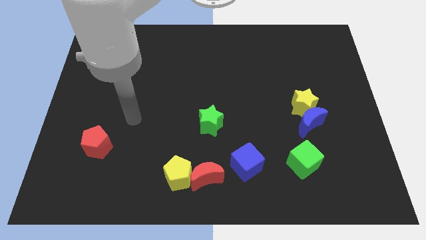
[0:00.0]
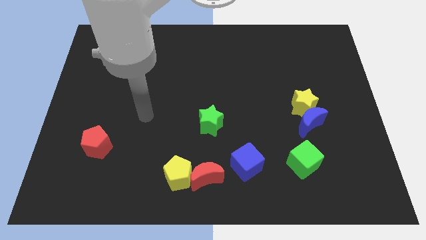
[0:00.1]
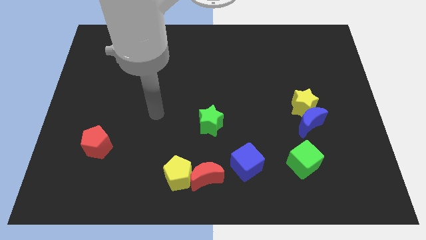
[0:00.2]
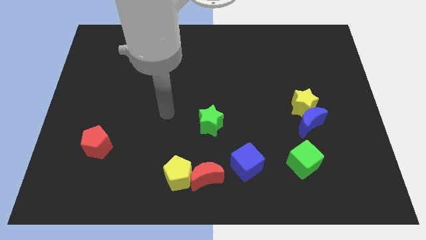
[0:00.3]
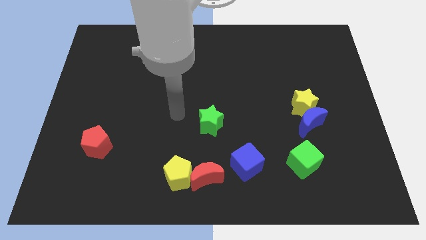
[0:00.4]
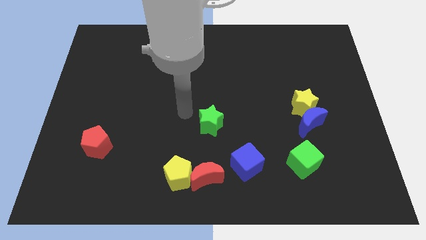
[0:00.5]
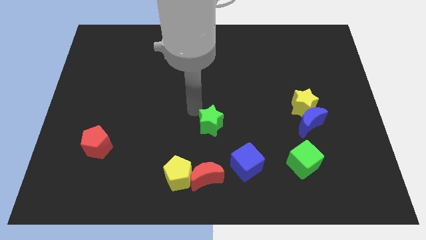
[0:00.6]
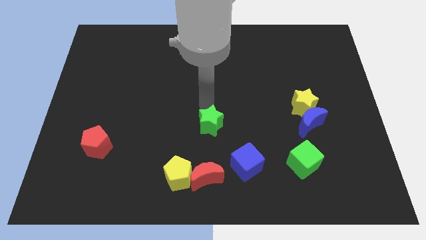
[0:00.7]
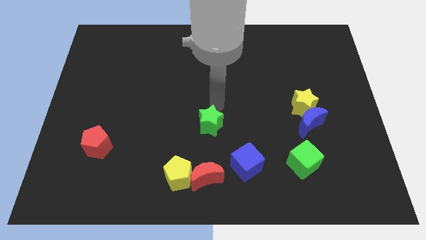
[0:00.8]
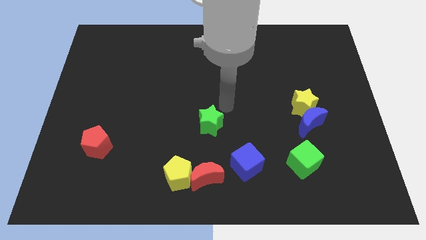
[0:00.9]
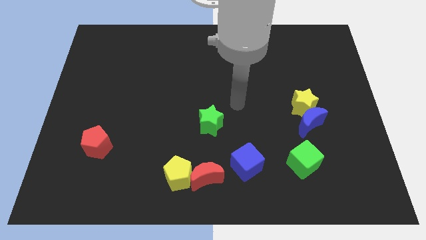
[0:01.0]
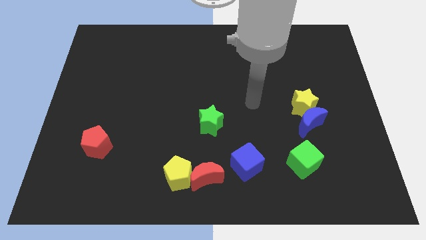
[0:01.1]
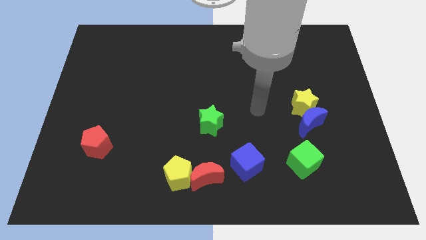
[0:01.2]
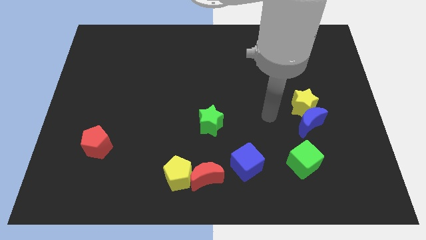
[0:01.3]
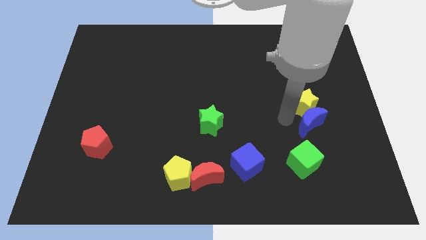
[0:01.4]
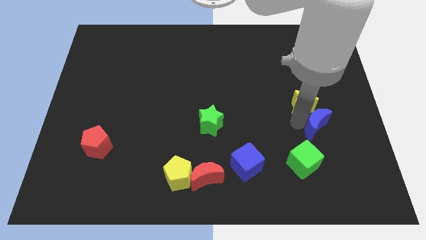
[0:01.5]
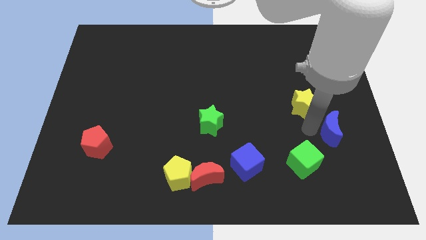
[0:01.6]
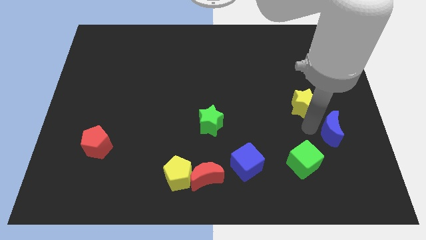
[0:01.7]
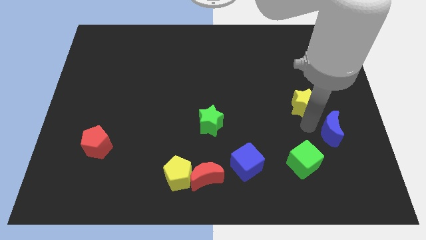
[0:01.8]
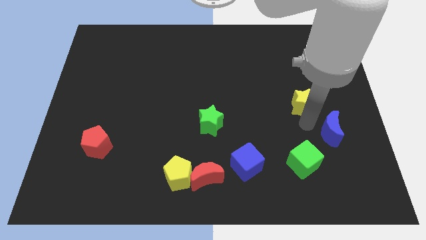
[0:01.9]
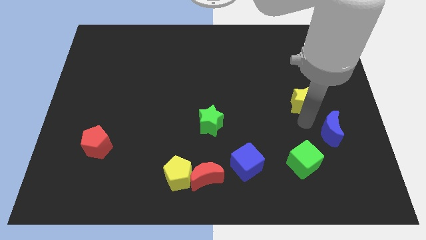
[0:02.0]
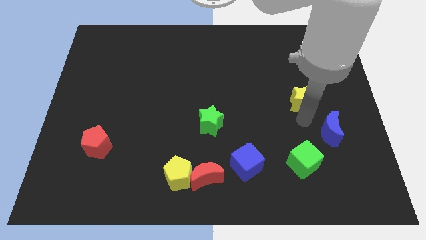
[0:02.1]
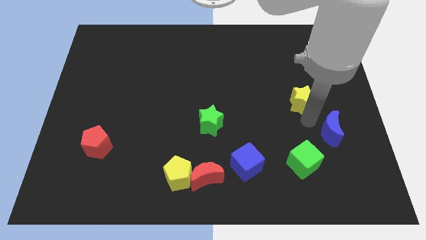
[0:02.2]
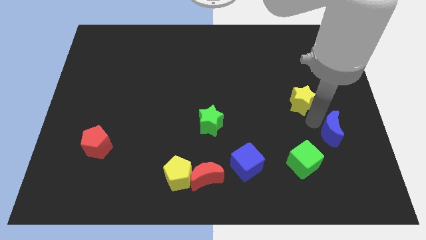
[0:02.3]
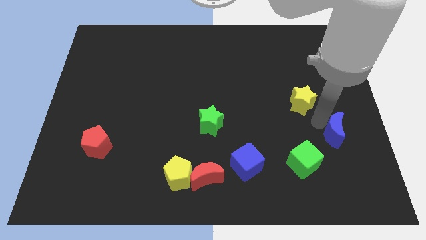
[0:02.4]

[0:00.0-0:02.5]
pull the yellow star apart from the blue moon

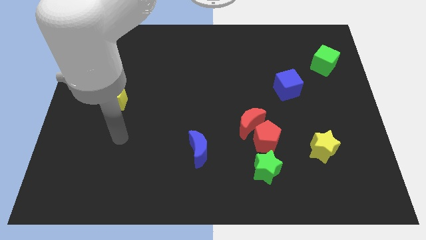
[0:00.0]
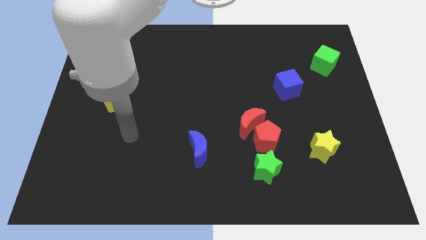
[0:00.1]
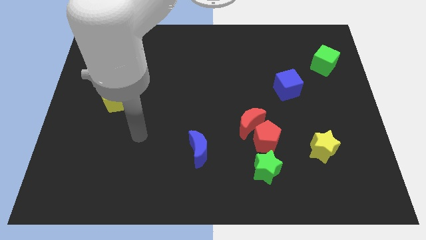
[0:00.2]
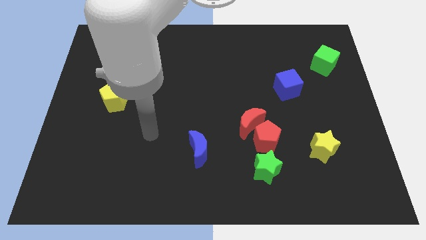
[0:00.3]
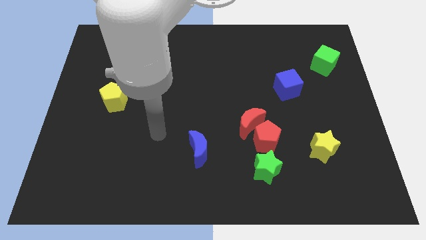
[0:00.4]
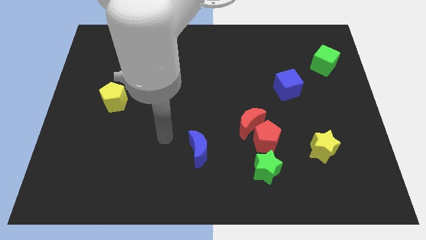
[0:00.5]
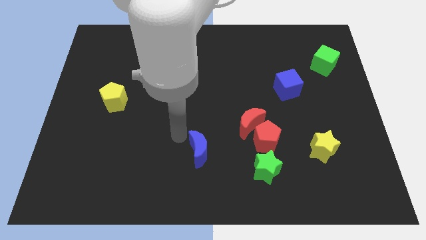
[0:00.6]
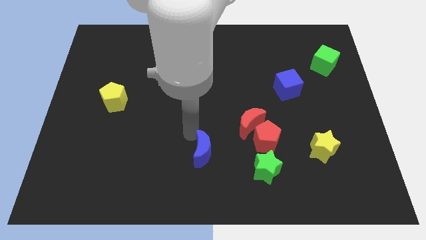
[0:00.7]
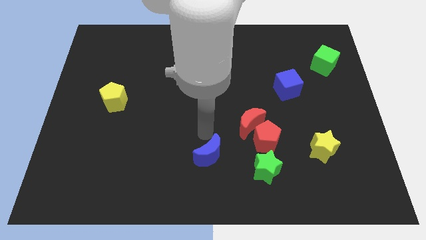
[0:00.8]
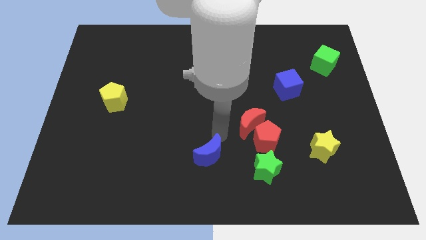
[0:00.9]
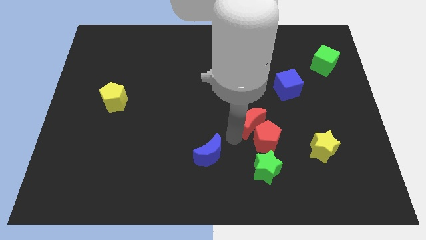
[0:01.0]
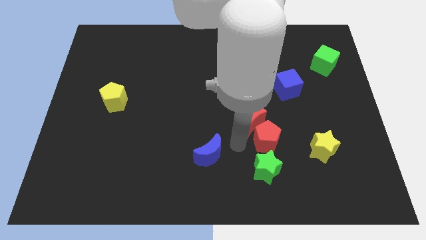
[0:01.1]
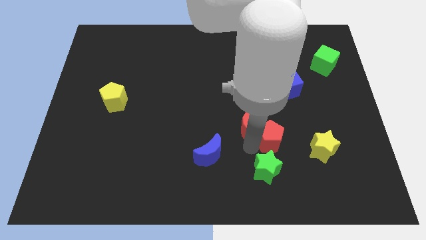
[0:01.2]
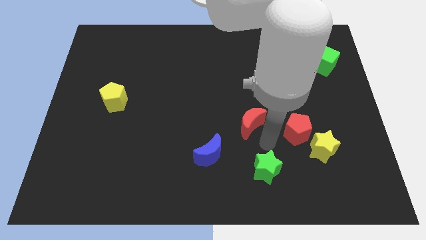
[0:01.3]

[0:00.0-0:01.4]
move the red moon away from the red pentagon

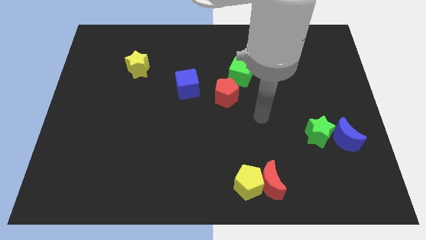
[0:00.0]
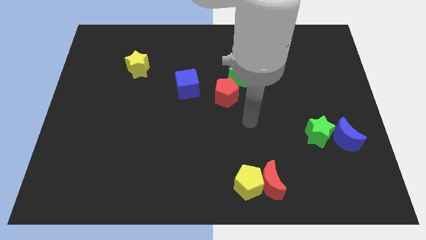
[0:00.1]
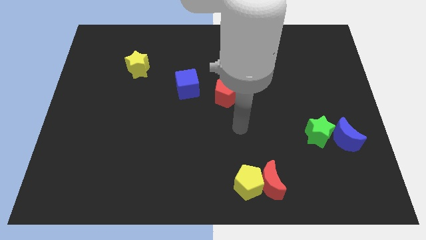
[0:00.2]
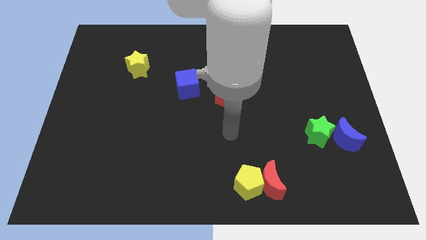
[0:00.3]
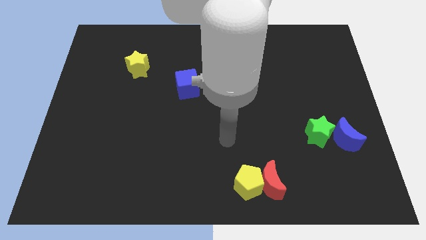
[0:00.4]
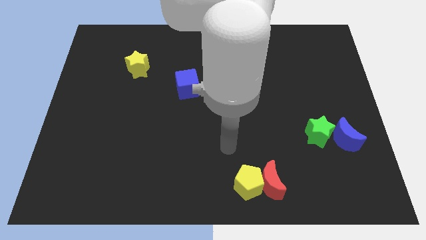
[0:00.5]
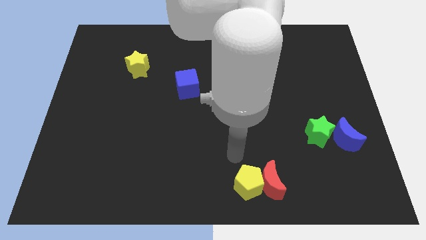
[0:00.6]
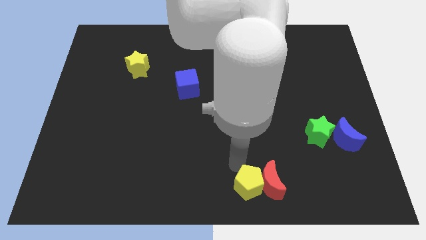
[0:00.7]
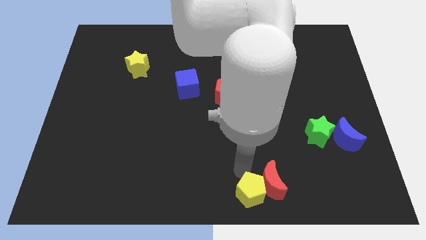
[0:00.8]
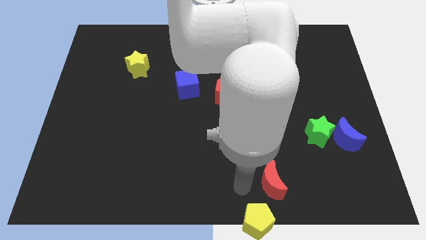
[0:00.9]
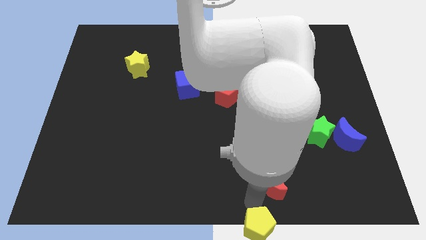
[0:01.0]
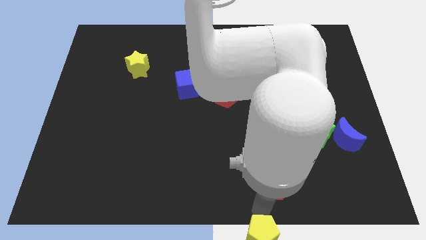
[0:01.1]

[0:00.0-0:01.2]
separate the red moon from the yellow pentagon

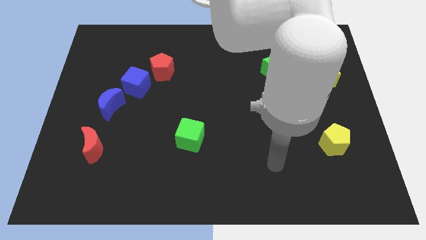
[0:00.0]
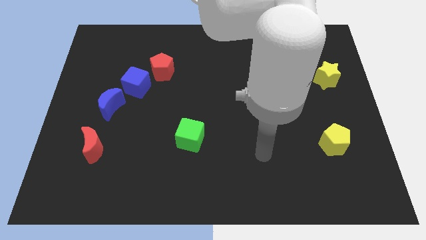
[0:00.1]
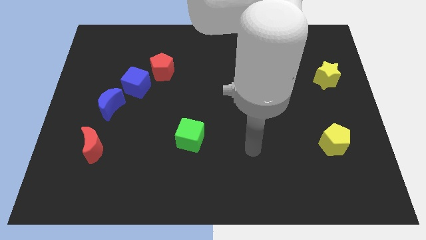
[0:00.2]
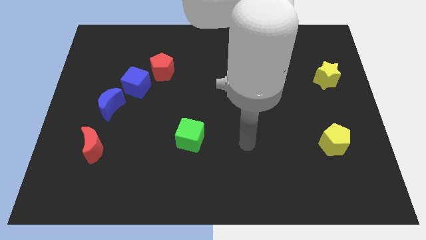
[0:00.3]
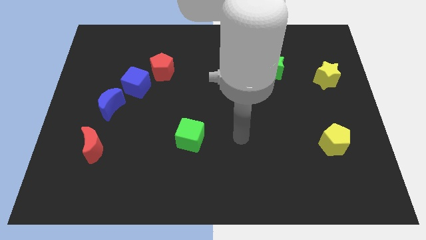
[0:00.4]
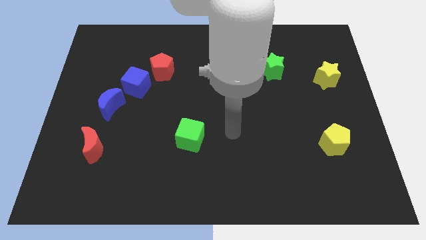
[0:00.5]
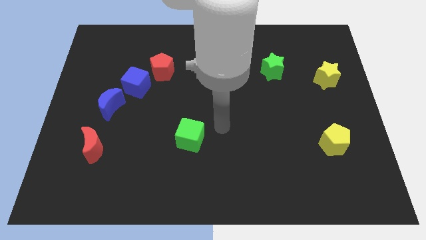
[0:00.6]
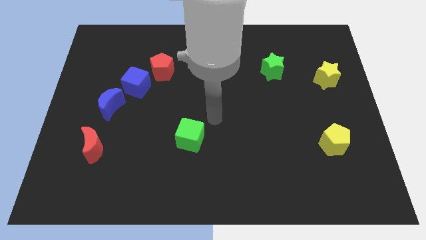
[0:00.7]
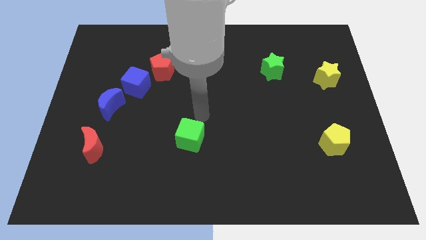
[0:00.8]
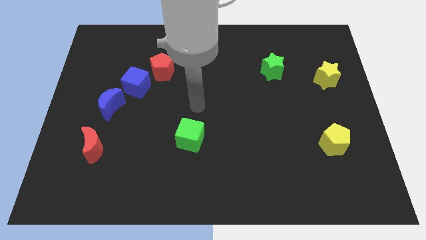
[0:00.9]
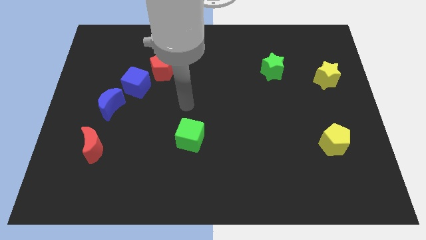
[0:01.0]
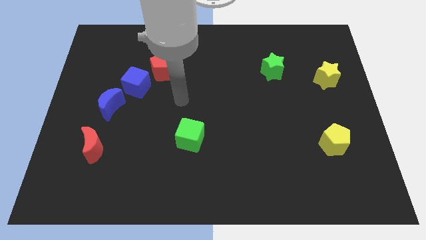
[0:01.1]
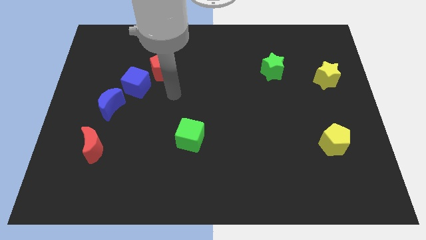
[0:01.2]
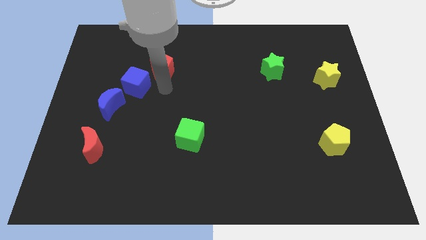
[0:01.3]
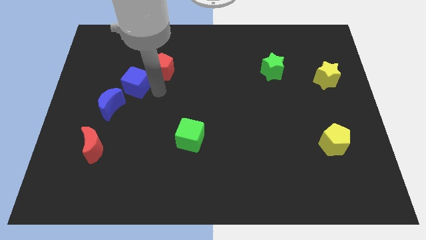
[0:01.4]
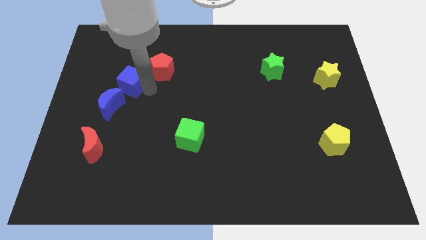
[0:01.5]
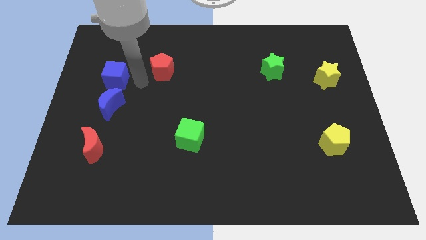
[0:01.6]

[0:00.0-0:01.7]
pull the red pentagon apart from the blue cube

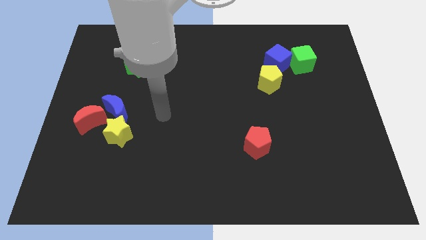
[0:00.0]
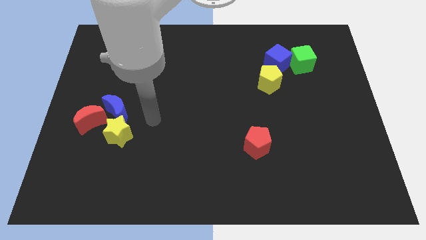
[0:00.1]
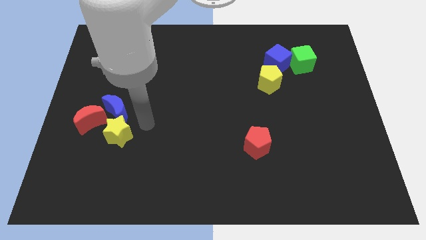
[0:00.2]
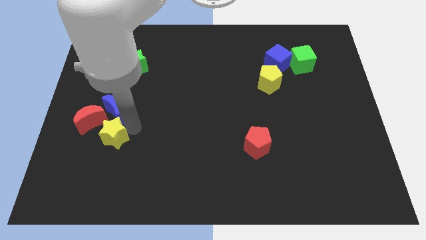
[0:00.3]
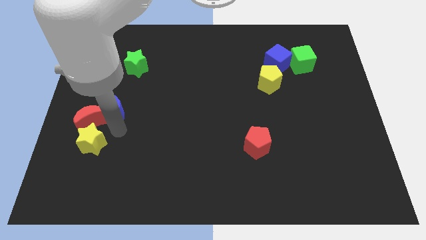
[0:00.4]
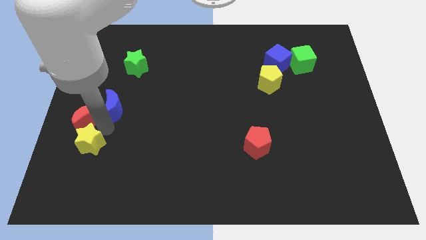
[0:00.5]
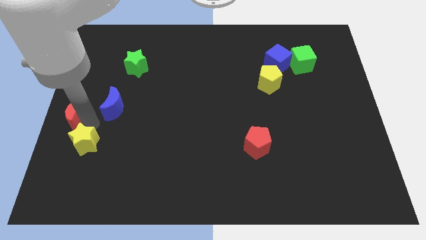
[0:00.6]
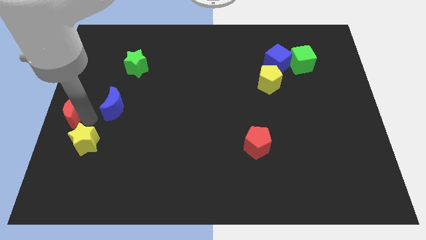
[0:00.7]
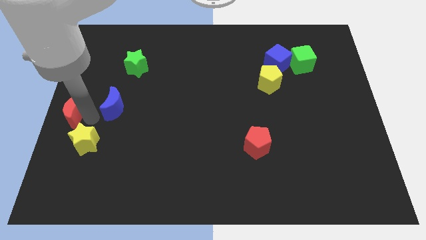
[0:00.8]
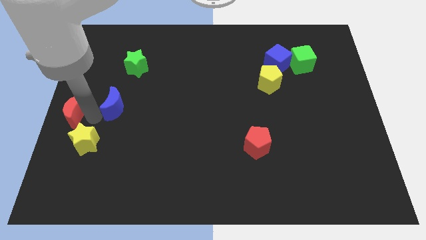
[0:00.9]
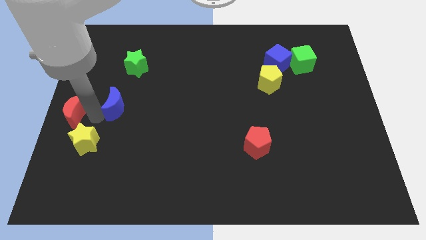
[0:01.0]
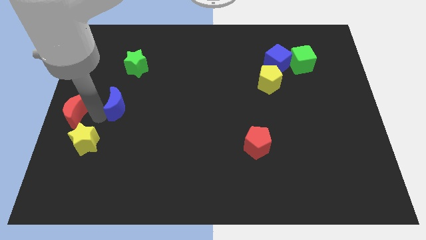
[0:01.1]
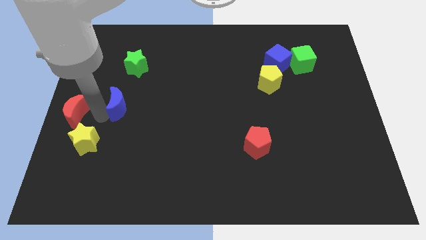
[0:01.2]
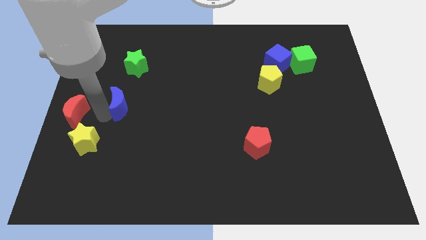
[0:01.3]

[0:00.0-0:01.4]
move the blue moon away from the yellow star and red moon

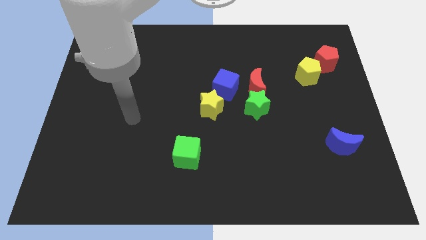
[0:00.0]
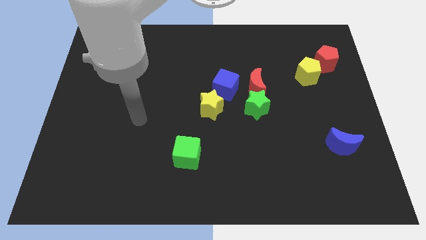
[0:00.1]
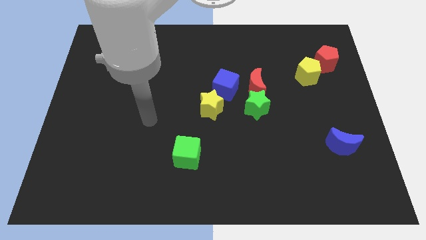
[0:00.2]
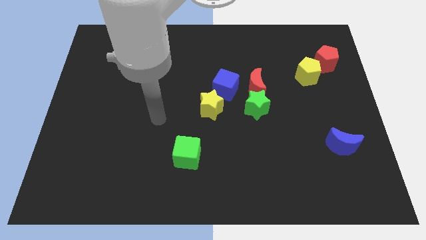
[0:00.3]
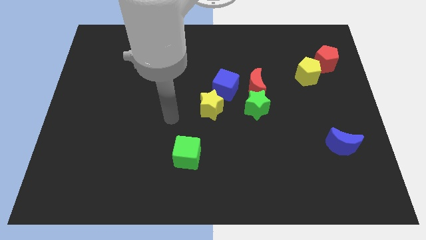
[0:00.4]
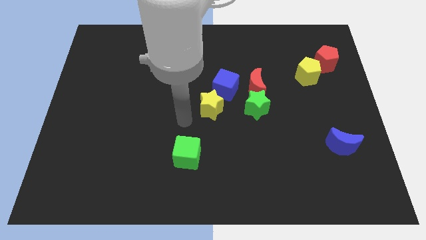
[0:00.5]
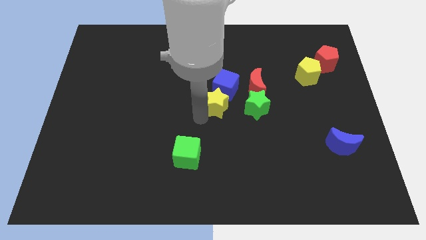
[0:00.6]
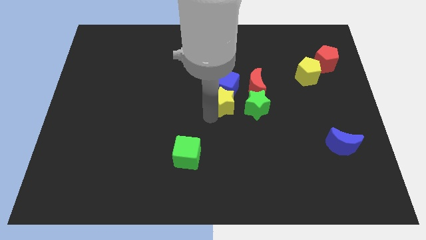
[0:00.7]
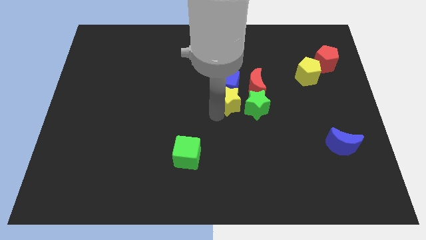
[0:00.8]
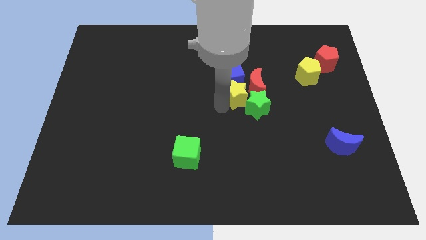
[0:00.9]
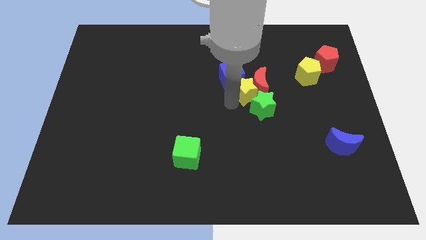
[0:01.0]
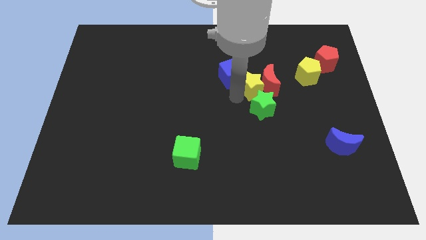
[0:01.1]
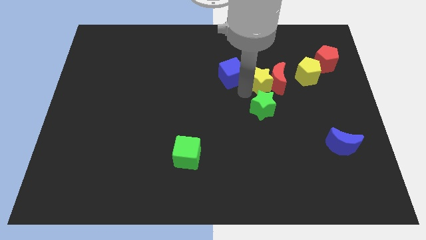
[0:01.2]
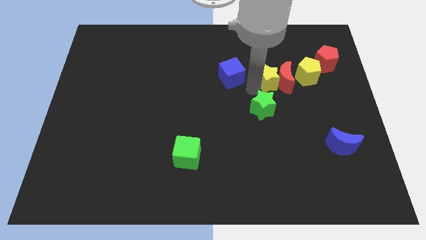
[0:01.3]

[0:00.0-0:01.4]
pull the red moon apart from the green star and blue cube
